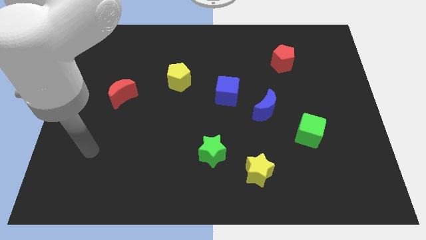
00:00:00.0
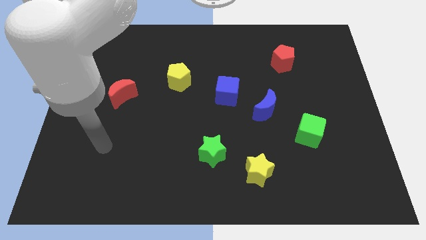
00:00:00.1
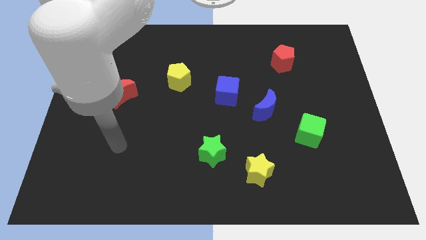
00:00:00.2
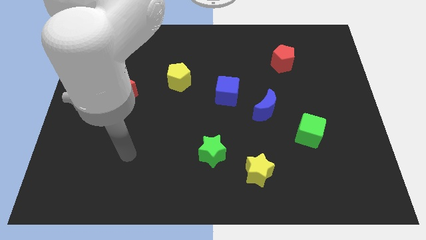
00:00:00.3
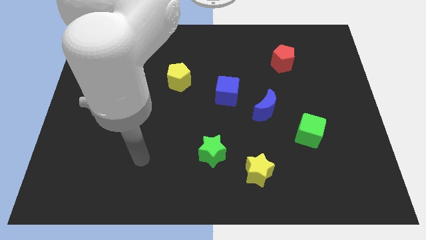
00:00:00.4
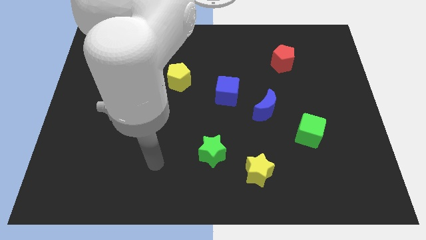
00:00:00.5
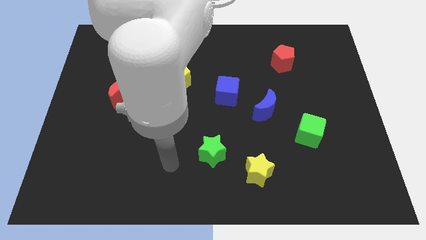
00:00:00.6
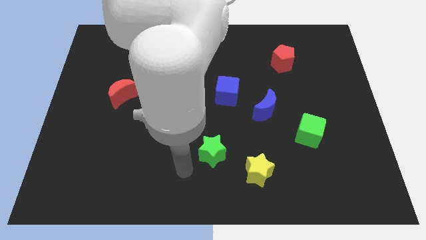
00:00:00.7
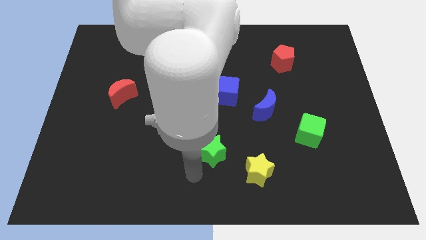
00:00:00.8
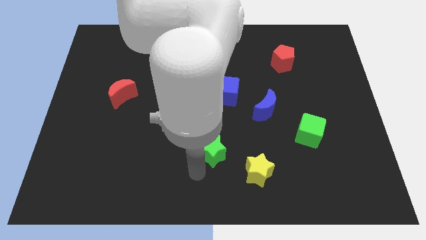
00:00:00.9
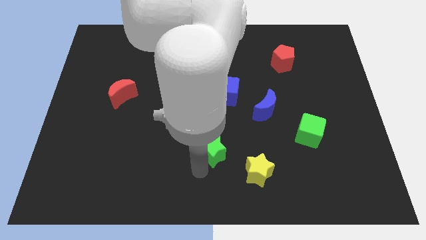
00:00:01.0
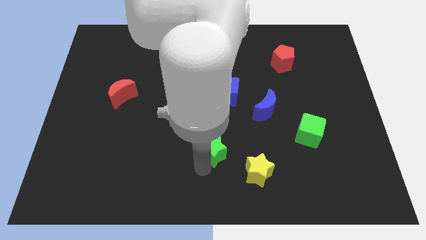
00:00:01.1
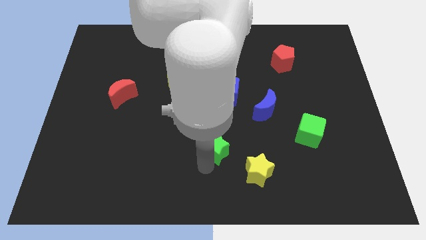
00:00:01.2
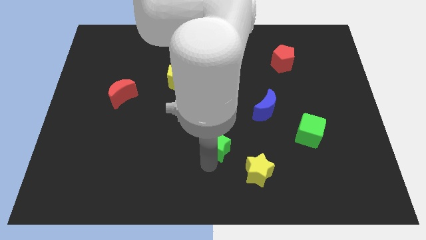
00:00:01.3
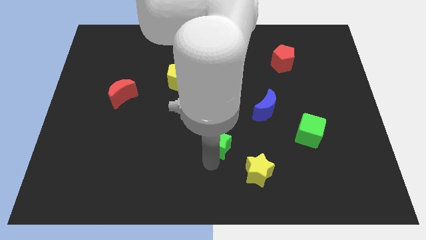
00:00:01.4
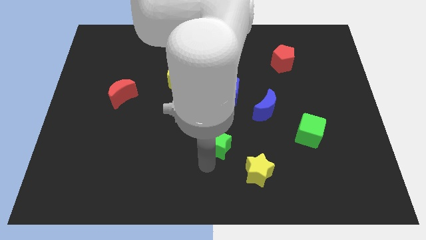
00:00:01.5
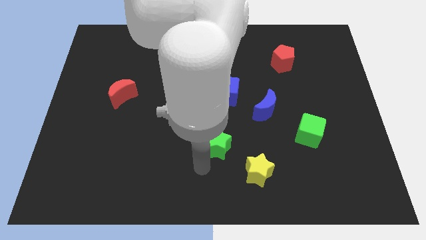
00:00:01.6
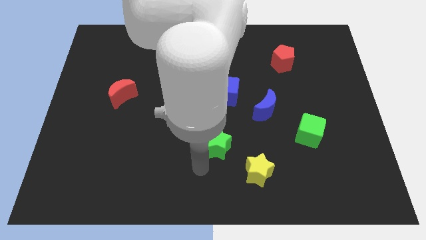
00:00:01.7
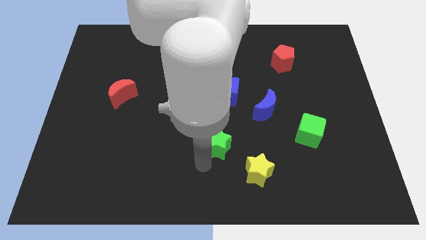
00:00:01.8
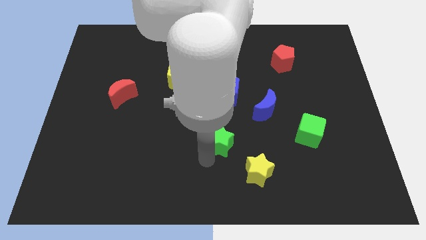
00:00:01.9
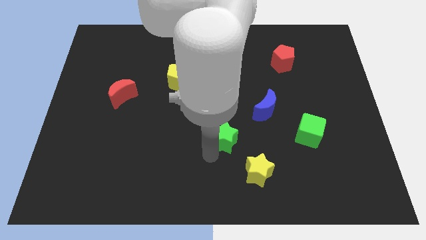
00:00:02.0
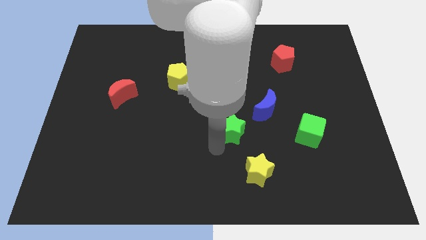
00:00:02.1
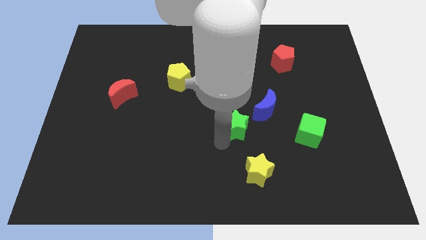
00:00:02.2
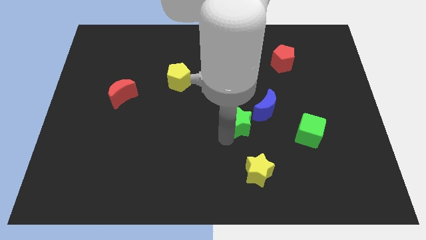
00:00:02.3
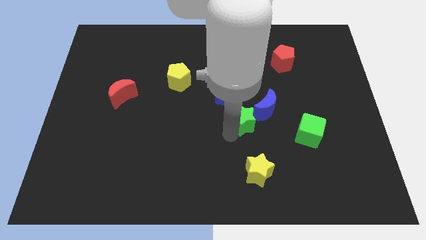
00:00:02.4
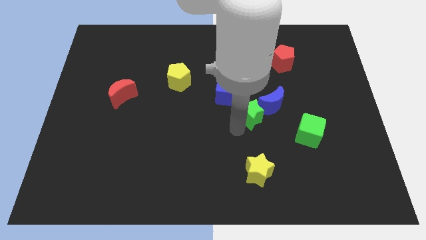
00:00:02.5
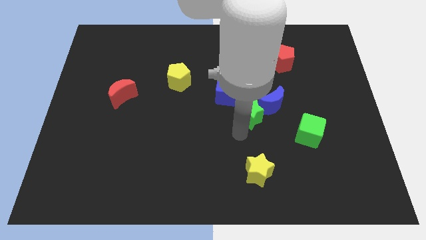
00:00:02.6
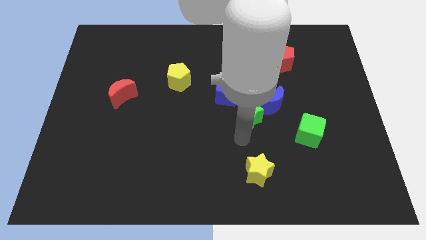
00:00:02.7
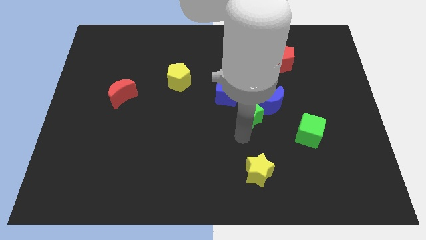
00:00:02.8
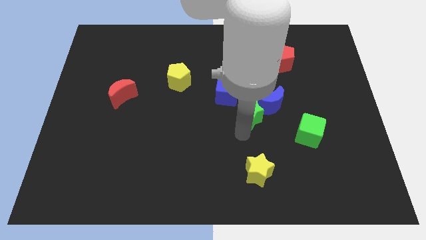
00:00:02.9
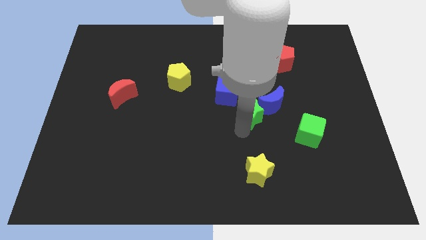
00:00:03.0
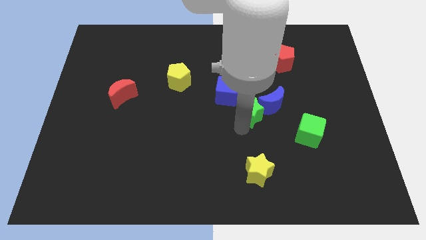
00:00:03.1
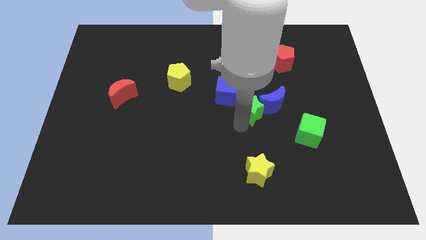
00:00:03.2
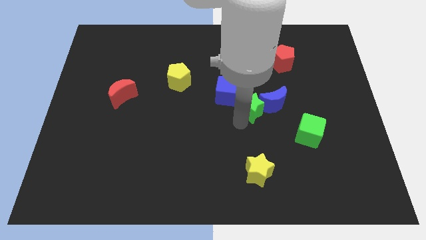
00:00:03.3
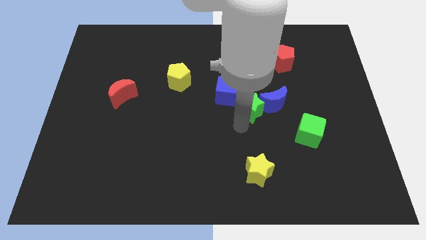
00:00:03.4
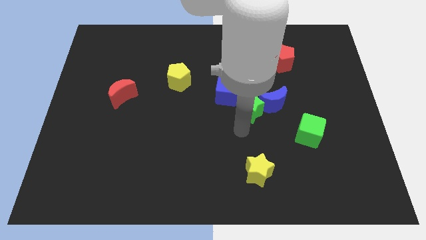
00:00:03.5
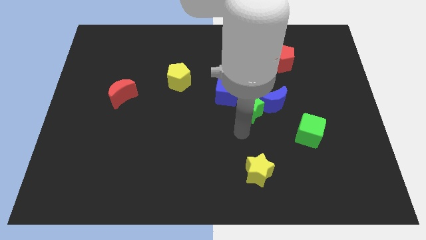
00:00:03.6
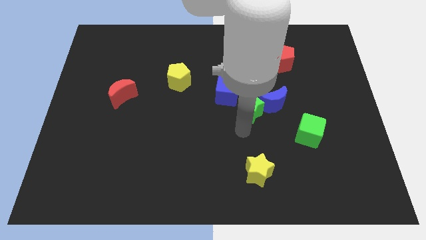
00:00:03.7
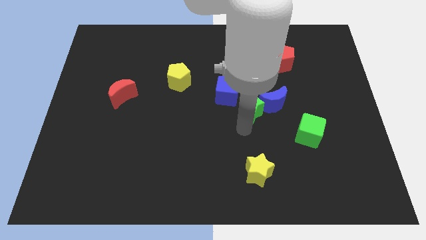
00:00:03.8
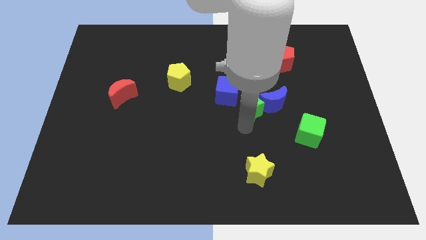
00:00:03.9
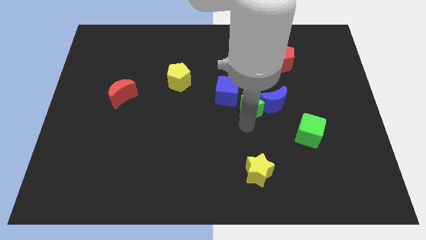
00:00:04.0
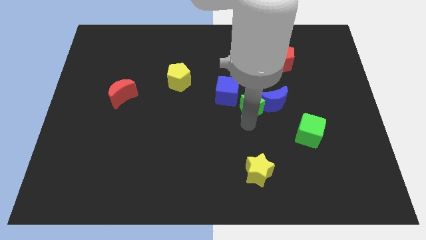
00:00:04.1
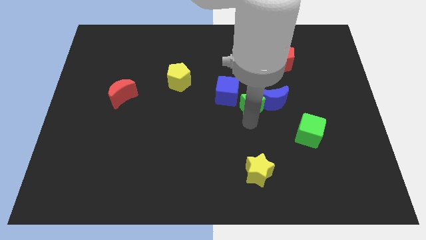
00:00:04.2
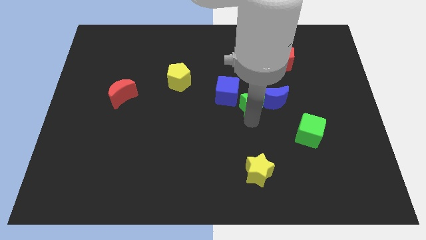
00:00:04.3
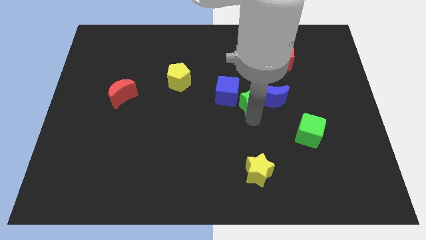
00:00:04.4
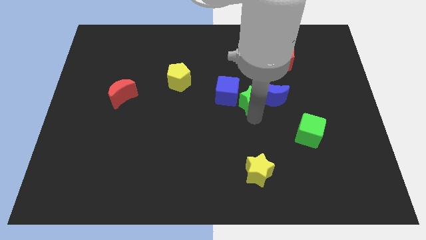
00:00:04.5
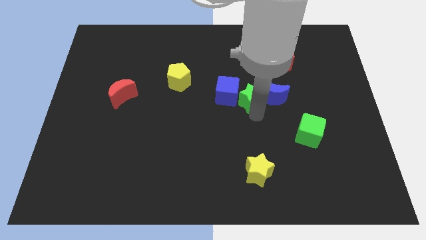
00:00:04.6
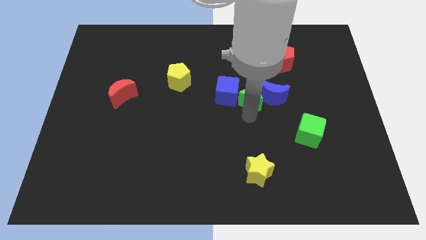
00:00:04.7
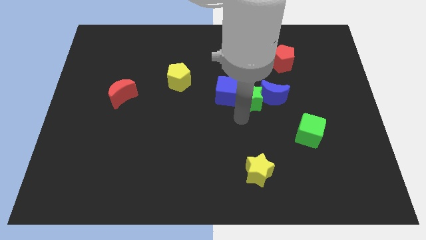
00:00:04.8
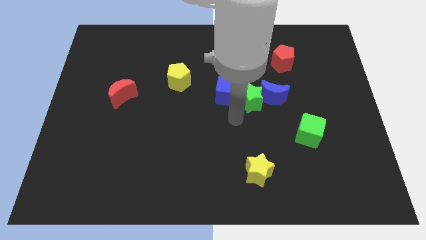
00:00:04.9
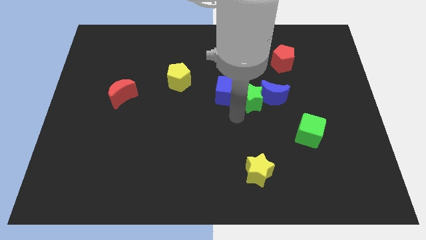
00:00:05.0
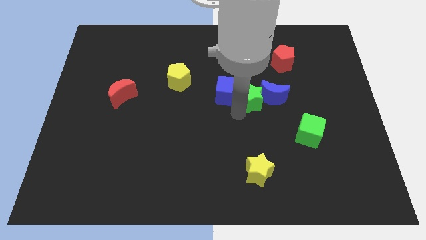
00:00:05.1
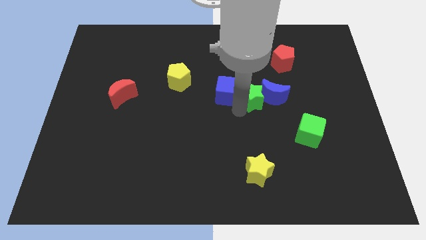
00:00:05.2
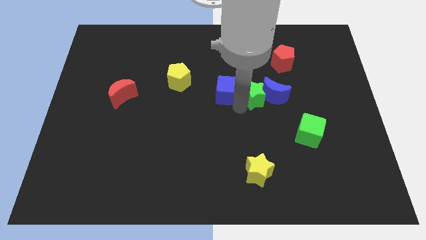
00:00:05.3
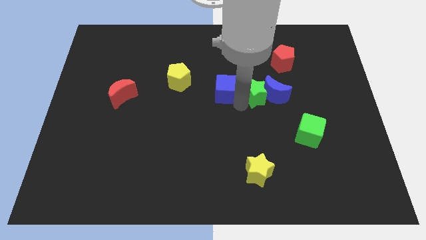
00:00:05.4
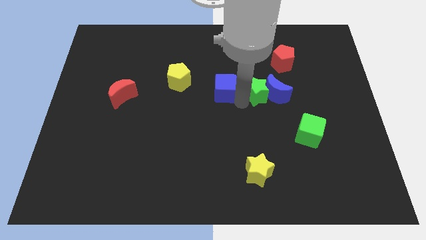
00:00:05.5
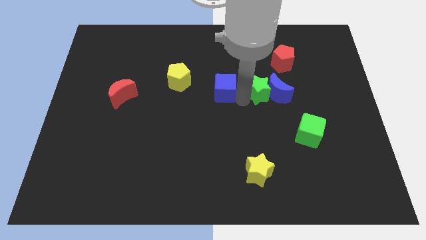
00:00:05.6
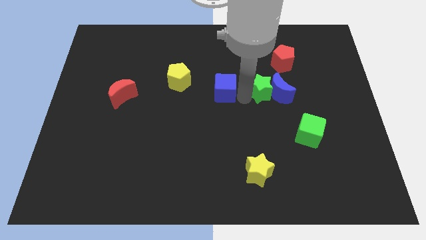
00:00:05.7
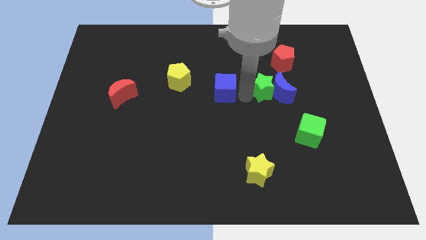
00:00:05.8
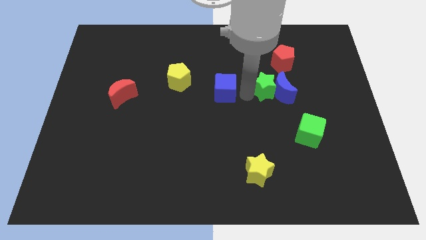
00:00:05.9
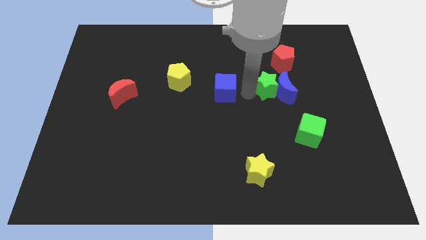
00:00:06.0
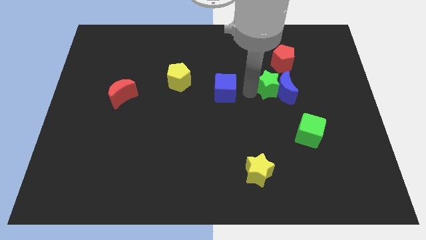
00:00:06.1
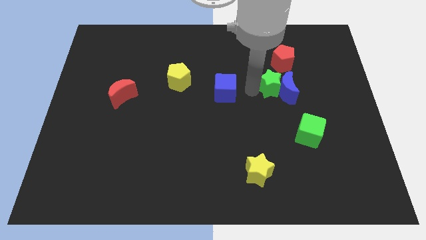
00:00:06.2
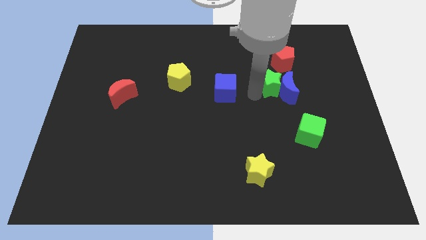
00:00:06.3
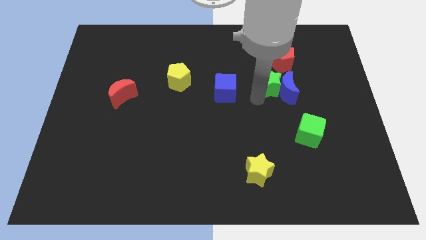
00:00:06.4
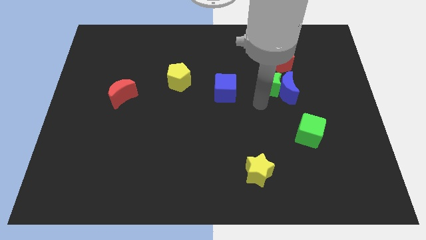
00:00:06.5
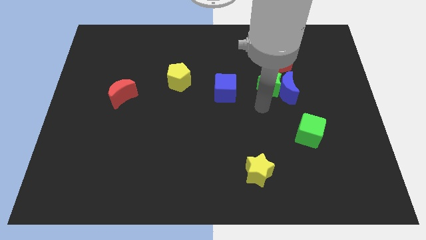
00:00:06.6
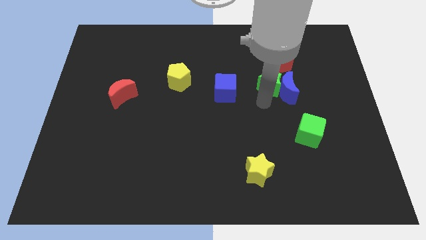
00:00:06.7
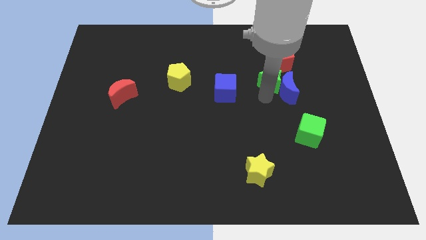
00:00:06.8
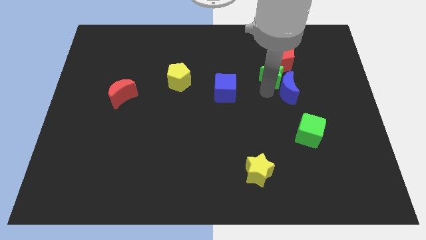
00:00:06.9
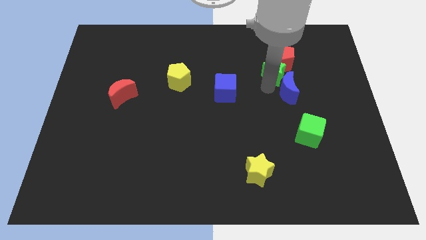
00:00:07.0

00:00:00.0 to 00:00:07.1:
put the green star next to the red pentagon
